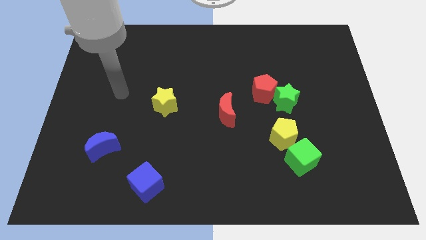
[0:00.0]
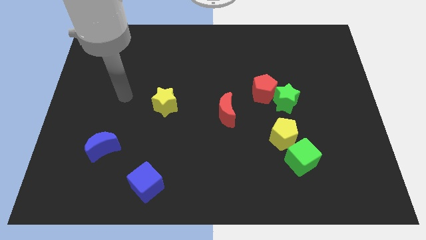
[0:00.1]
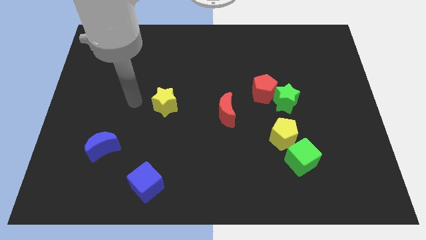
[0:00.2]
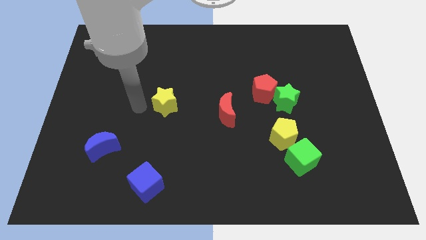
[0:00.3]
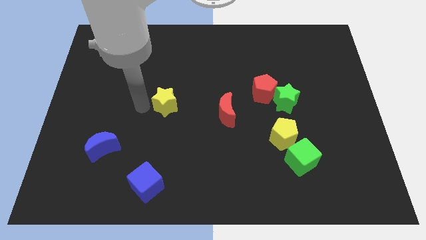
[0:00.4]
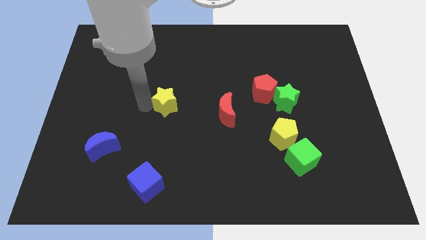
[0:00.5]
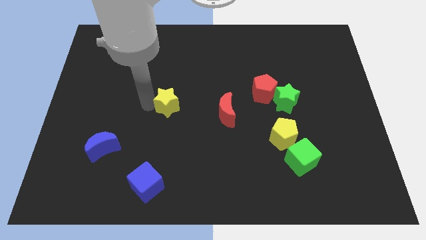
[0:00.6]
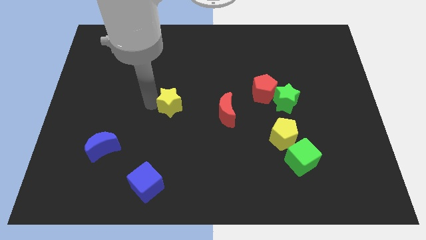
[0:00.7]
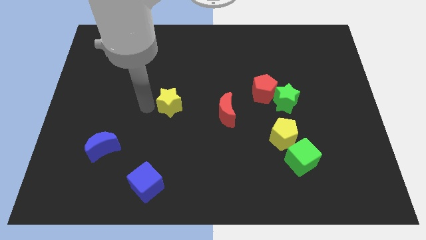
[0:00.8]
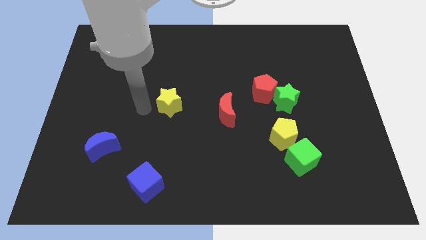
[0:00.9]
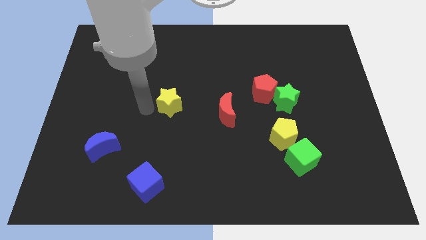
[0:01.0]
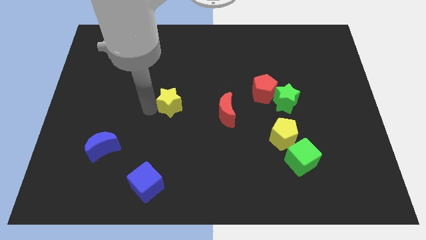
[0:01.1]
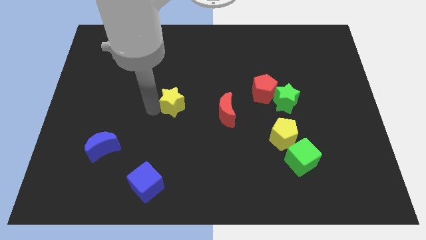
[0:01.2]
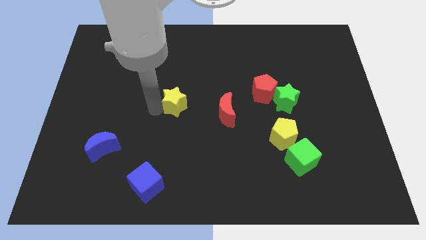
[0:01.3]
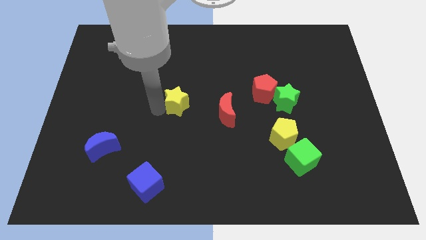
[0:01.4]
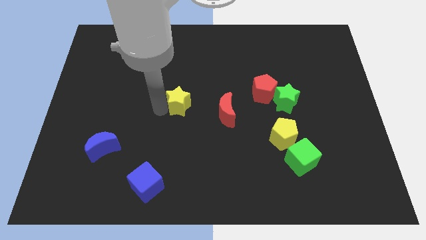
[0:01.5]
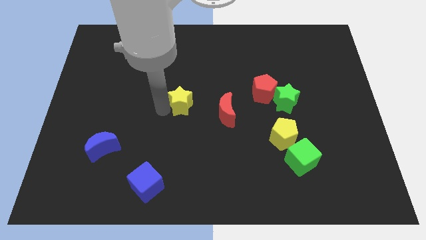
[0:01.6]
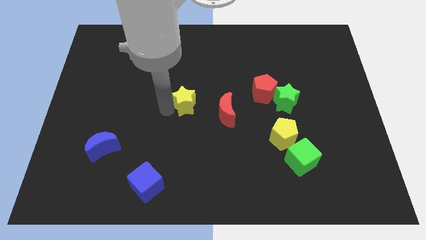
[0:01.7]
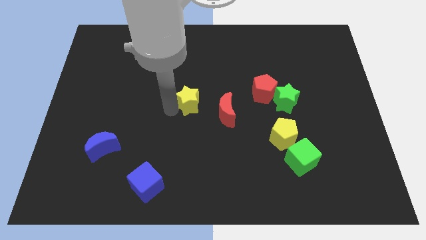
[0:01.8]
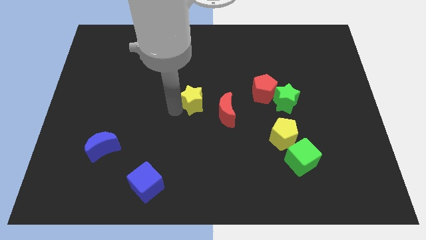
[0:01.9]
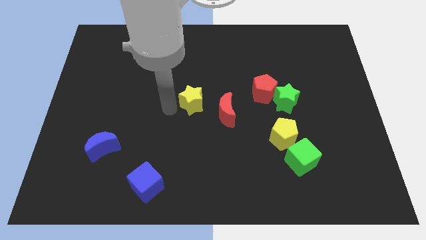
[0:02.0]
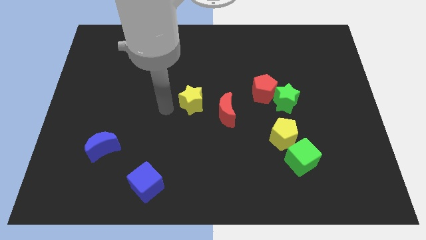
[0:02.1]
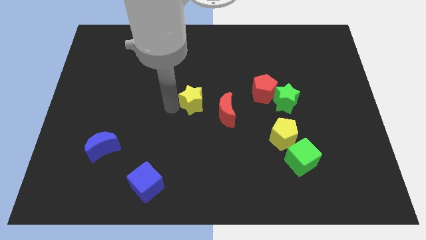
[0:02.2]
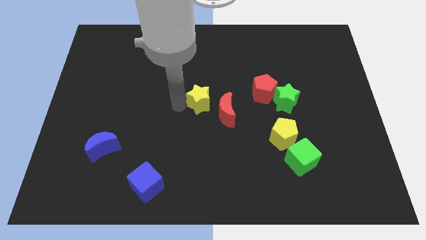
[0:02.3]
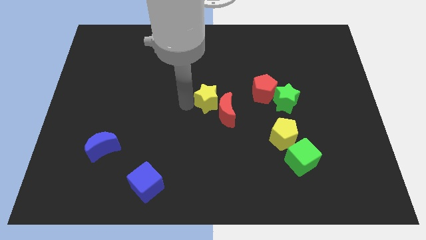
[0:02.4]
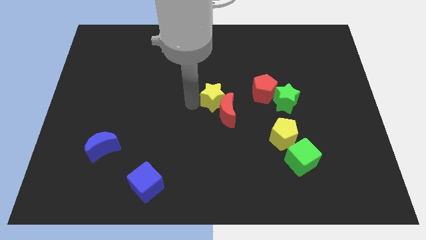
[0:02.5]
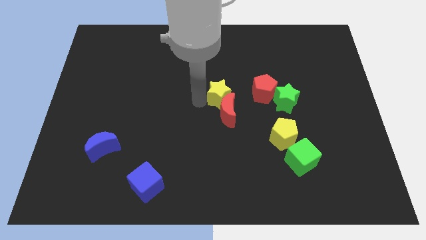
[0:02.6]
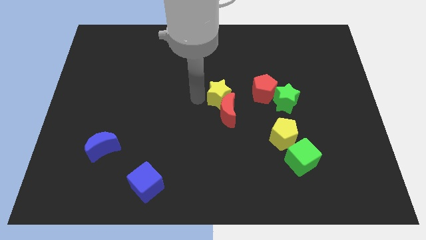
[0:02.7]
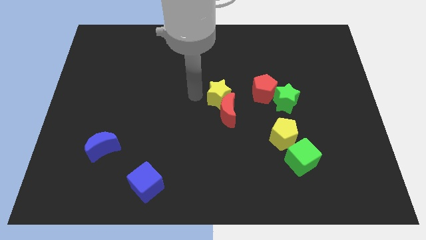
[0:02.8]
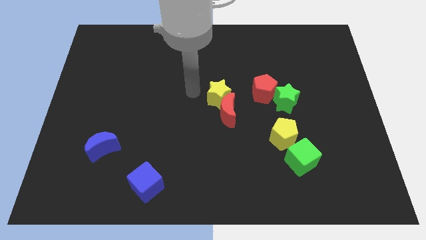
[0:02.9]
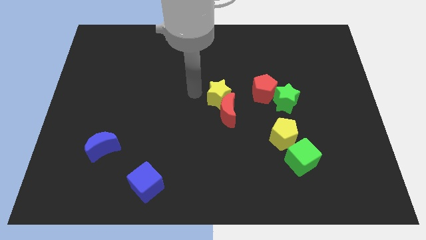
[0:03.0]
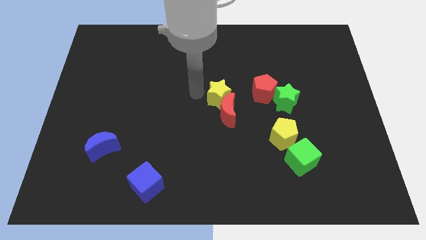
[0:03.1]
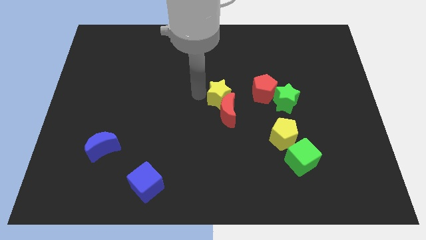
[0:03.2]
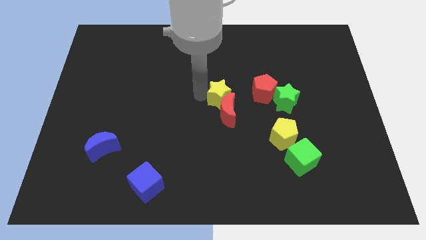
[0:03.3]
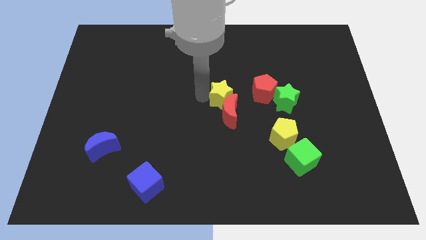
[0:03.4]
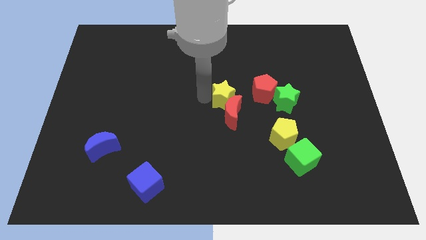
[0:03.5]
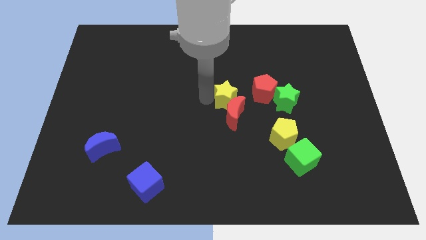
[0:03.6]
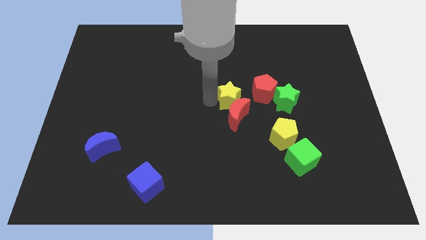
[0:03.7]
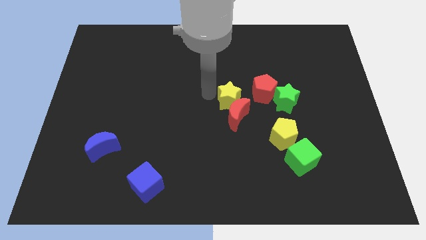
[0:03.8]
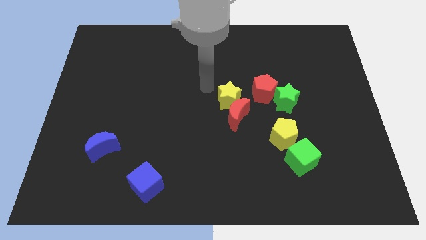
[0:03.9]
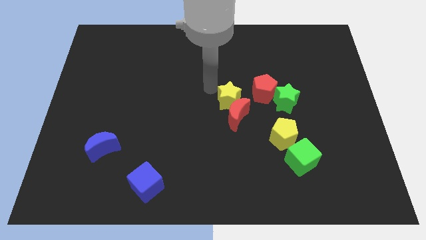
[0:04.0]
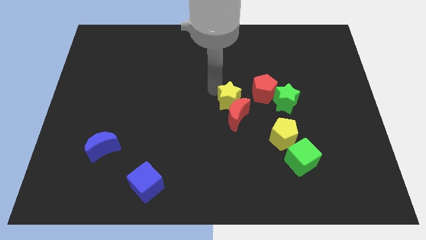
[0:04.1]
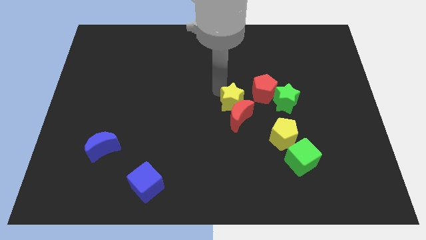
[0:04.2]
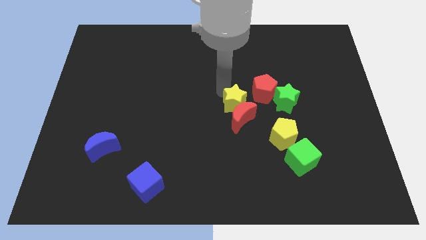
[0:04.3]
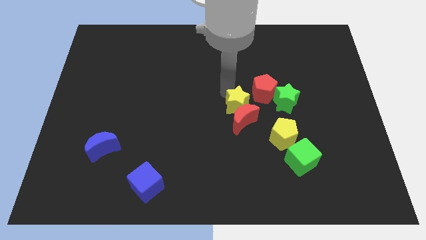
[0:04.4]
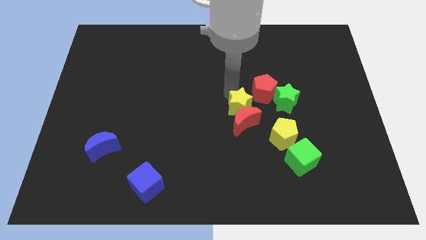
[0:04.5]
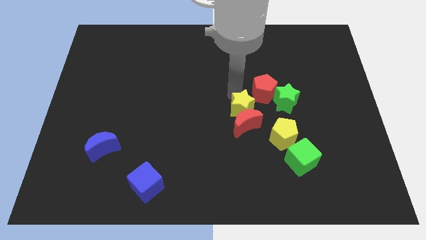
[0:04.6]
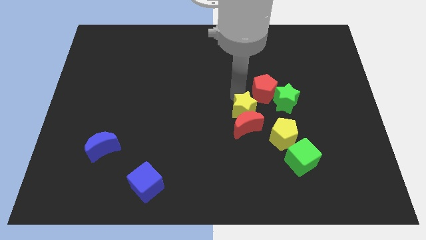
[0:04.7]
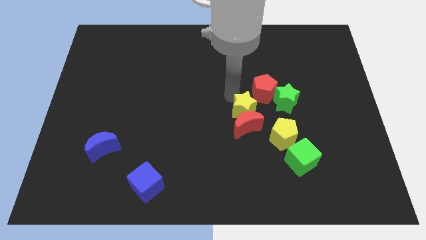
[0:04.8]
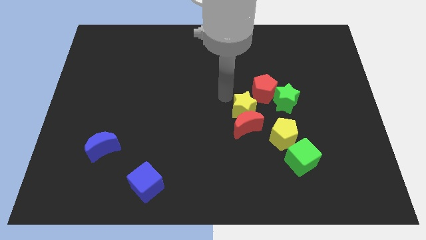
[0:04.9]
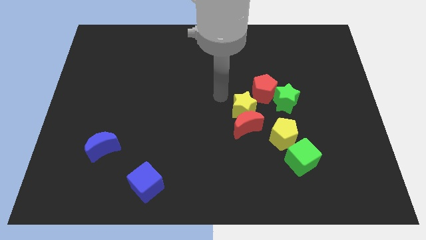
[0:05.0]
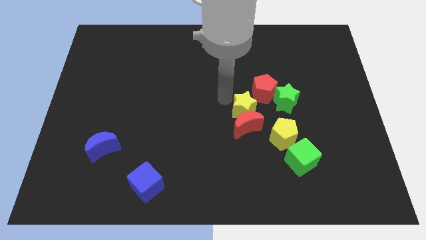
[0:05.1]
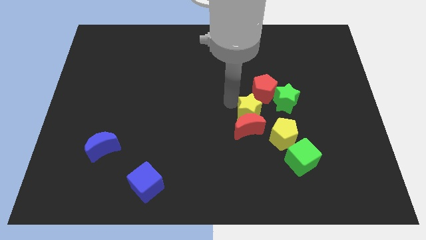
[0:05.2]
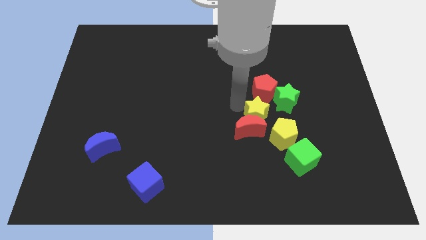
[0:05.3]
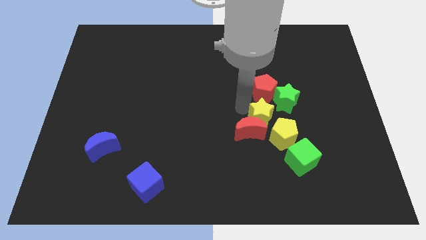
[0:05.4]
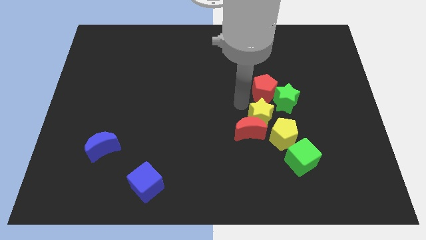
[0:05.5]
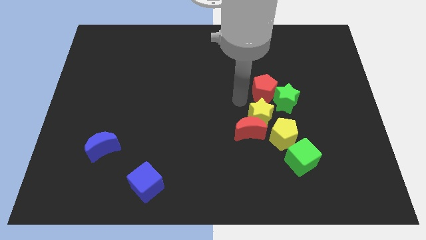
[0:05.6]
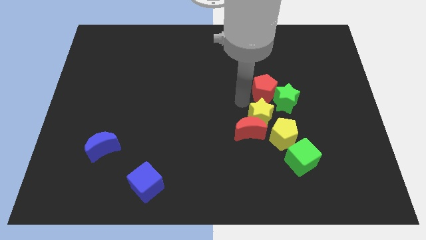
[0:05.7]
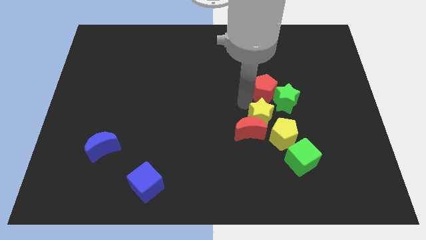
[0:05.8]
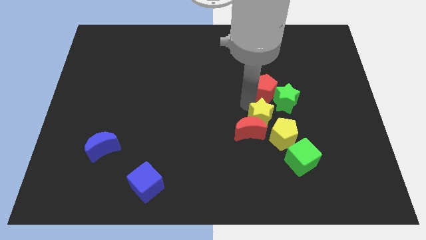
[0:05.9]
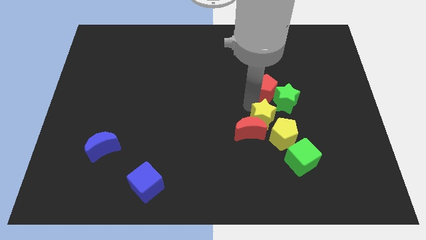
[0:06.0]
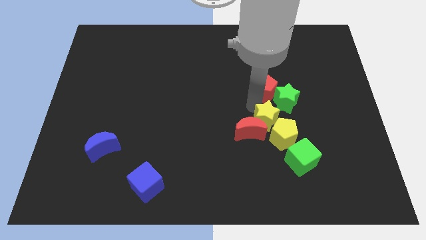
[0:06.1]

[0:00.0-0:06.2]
put the yellow star close to the yellow pentagon

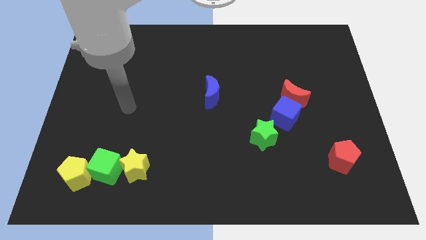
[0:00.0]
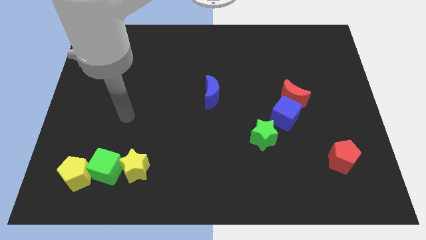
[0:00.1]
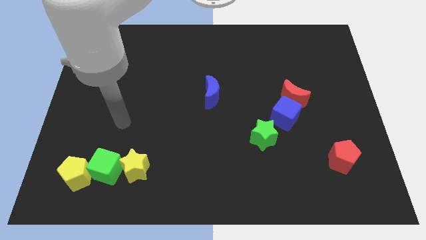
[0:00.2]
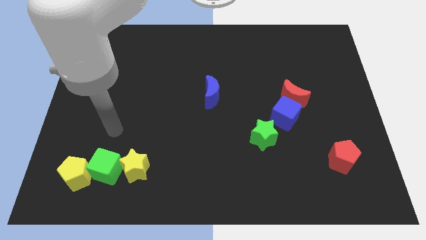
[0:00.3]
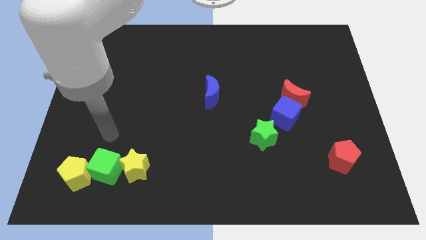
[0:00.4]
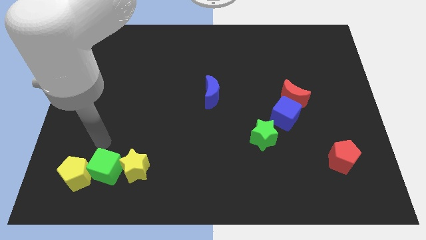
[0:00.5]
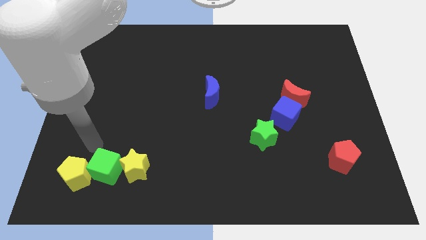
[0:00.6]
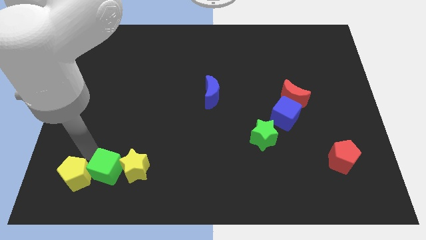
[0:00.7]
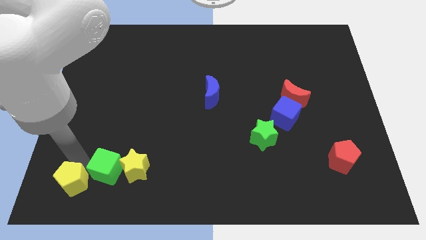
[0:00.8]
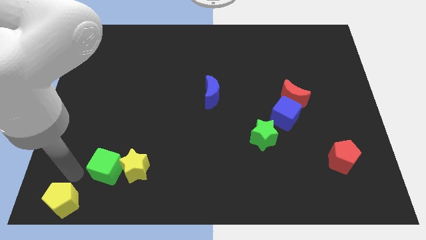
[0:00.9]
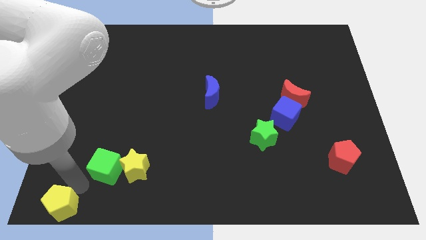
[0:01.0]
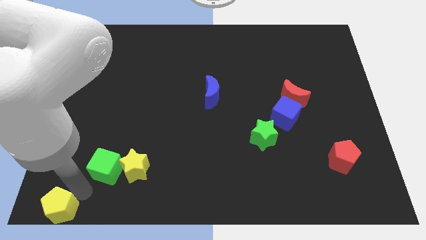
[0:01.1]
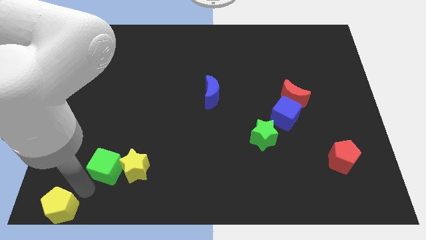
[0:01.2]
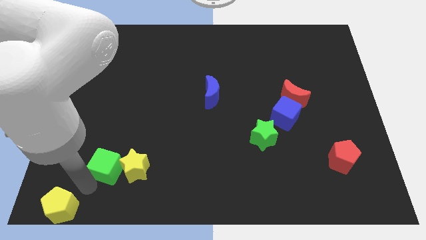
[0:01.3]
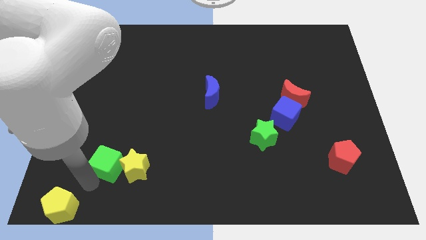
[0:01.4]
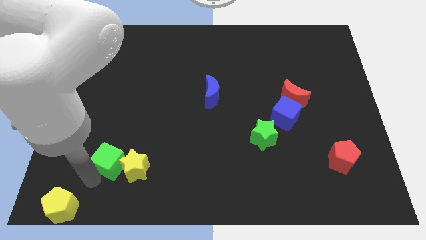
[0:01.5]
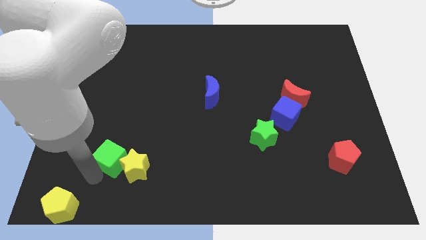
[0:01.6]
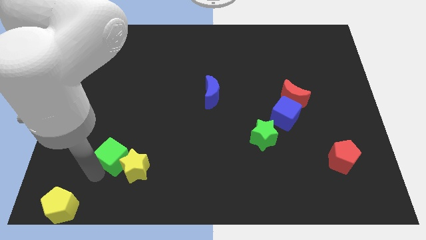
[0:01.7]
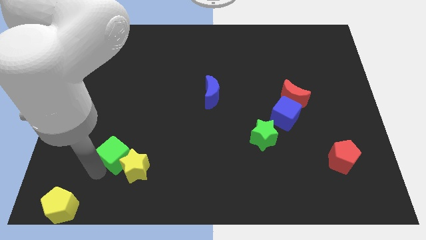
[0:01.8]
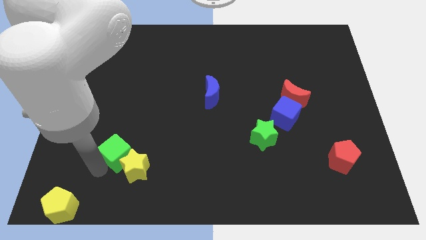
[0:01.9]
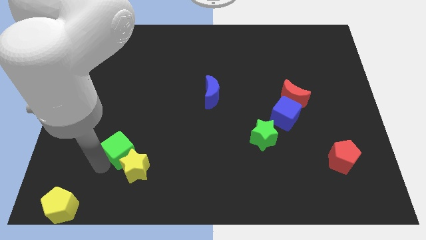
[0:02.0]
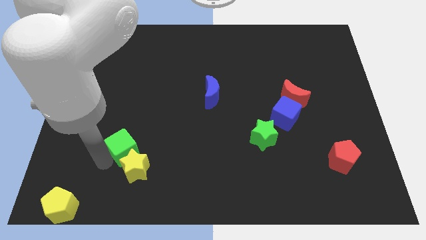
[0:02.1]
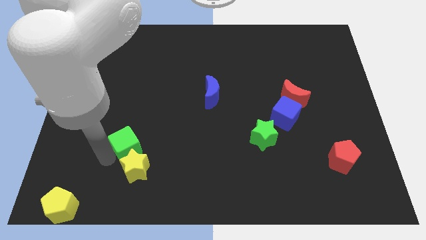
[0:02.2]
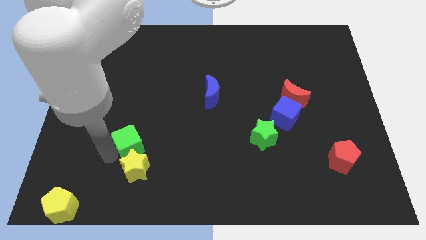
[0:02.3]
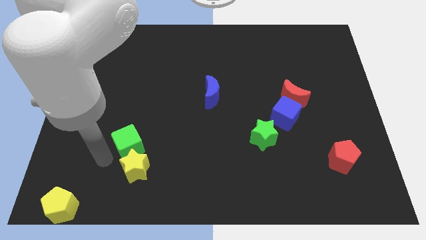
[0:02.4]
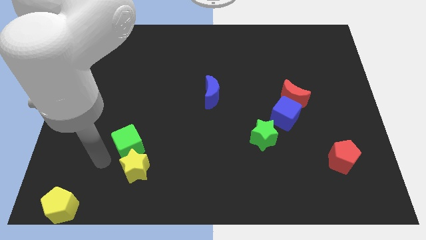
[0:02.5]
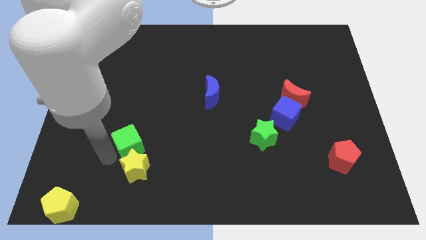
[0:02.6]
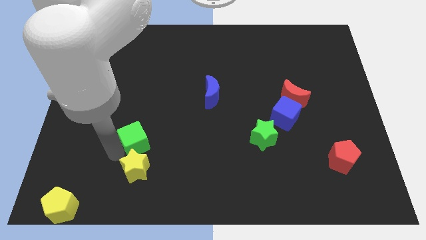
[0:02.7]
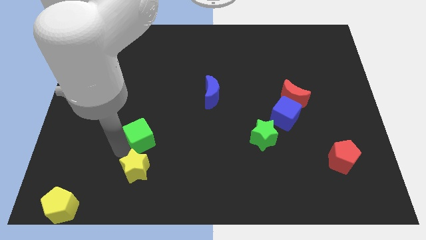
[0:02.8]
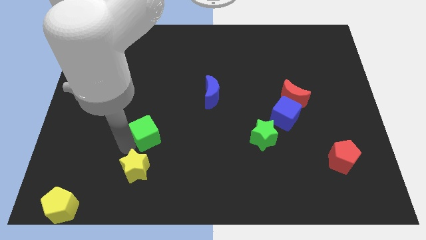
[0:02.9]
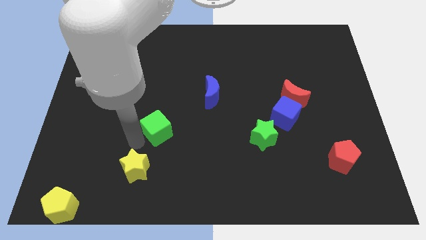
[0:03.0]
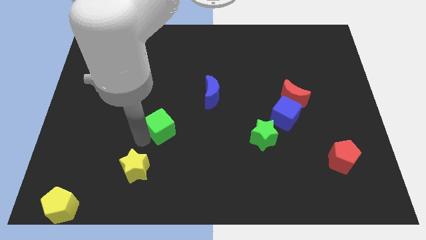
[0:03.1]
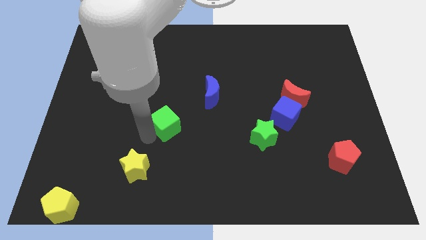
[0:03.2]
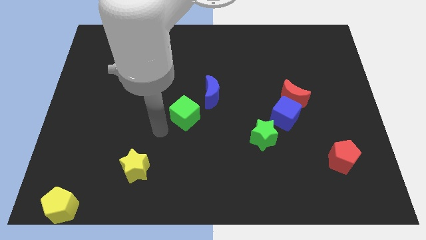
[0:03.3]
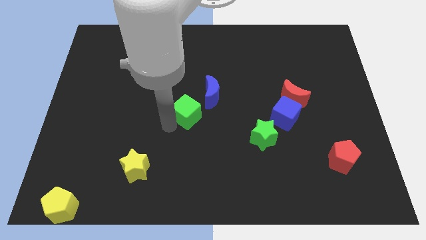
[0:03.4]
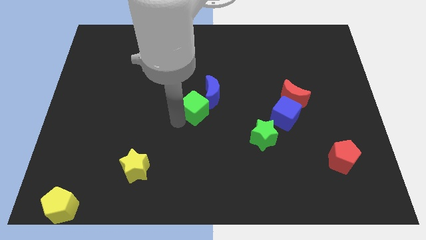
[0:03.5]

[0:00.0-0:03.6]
push the green cube towards the blue moon
